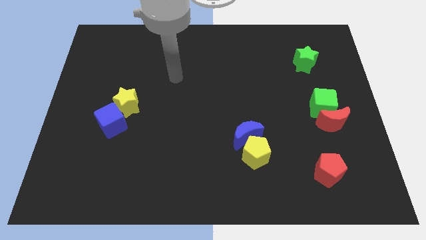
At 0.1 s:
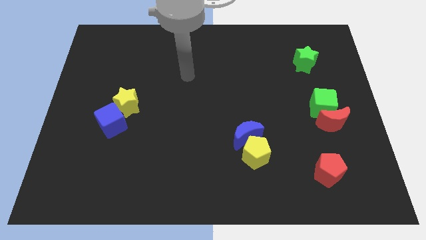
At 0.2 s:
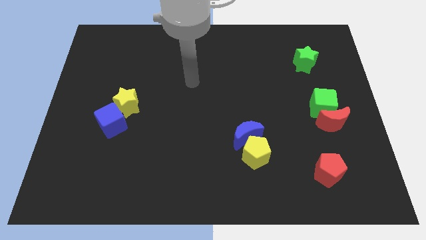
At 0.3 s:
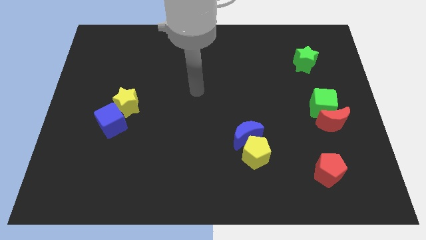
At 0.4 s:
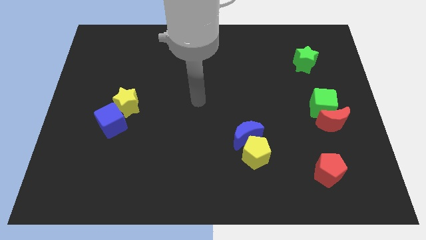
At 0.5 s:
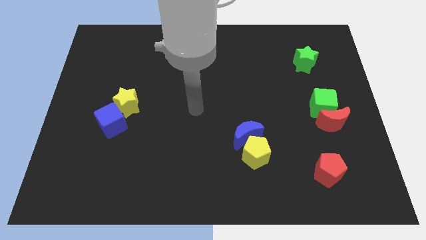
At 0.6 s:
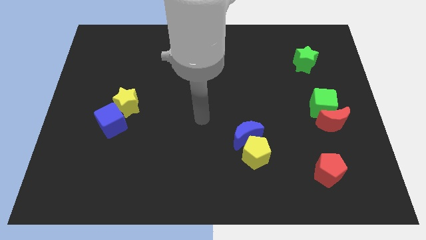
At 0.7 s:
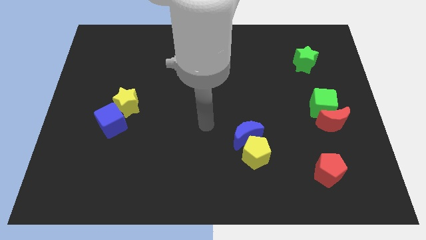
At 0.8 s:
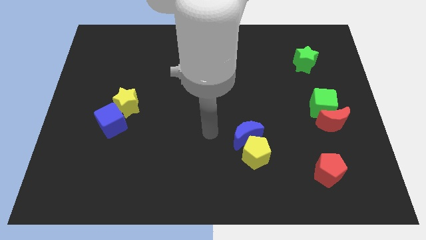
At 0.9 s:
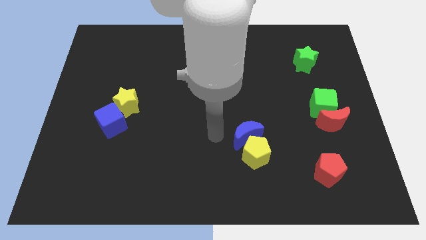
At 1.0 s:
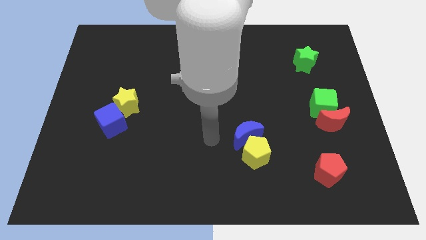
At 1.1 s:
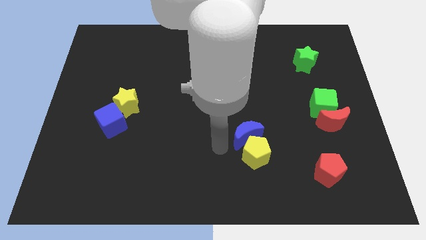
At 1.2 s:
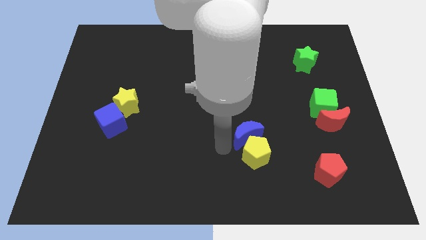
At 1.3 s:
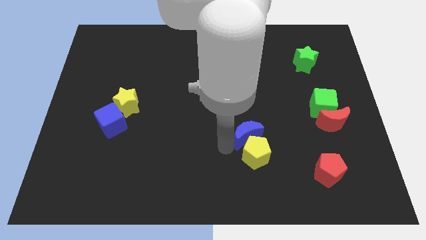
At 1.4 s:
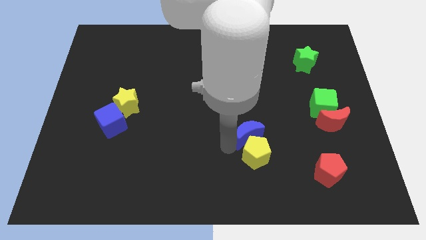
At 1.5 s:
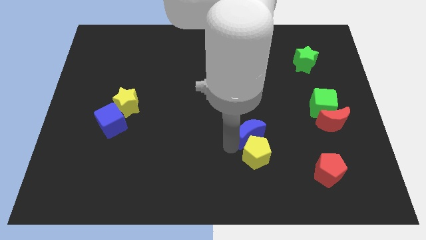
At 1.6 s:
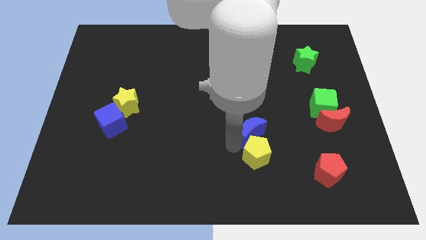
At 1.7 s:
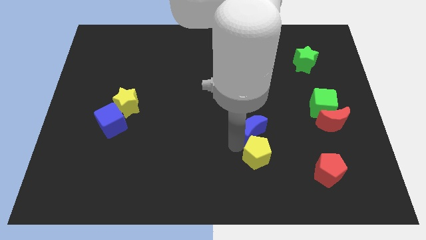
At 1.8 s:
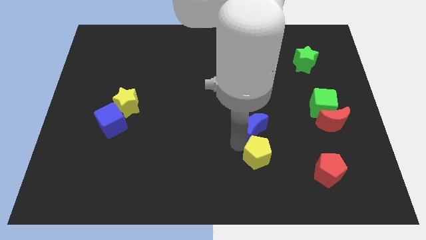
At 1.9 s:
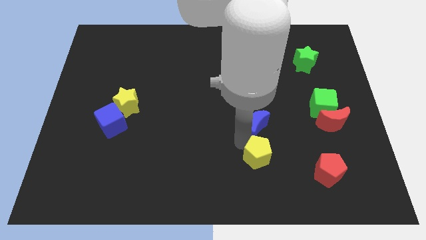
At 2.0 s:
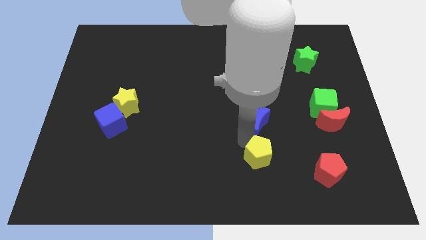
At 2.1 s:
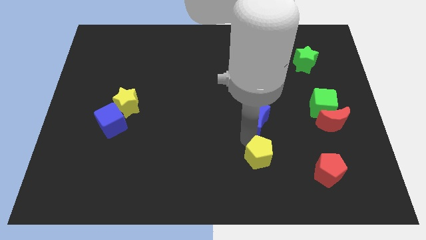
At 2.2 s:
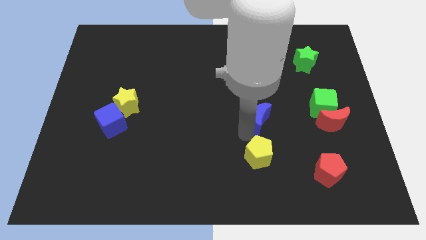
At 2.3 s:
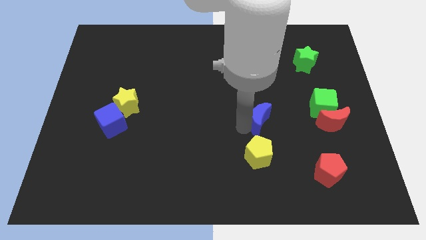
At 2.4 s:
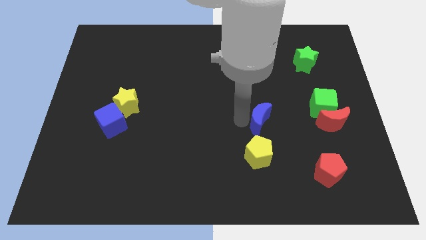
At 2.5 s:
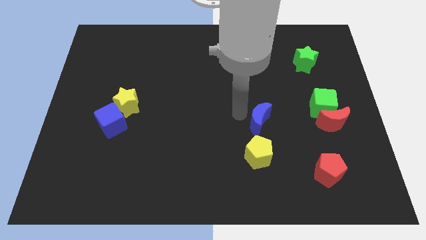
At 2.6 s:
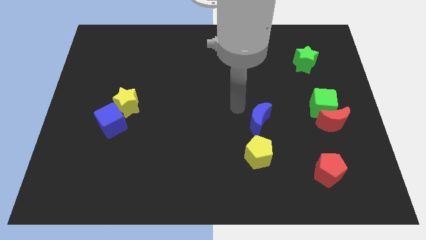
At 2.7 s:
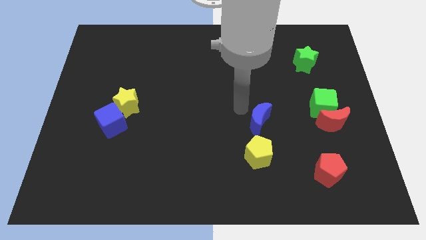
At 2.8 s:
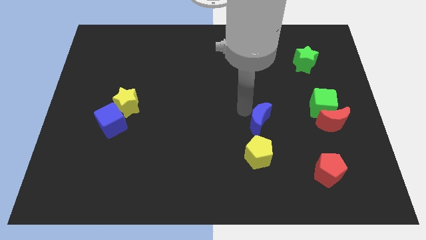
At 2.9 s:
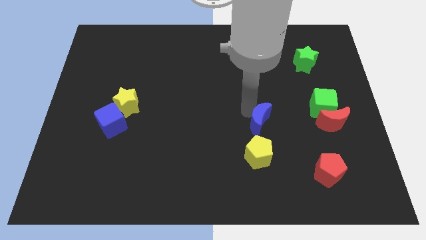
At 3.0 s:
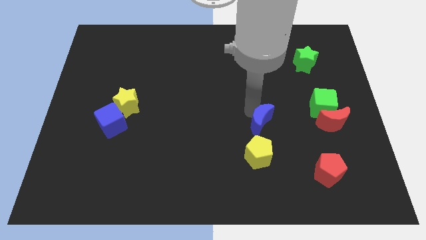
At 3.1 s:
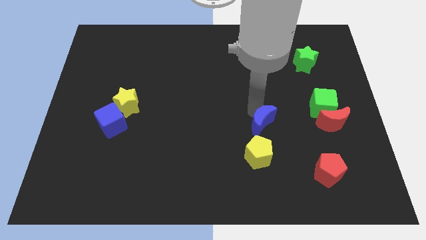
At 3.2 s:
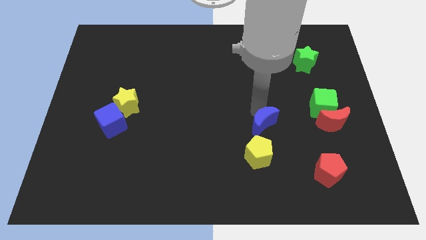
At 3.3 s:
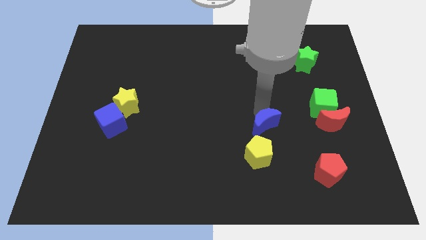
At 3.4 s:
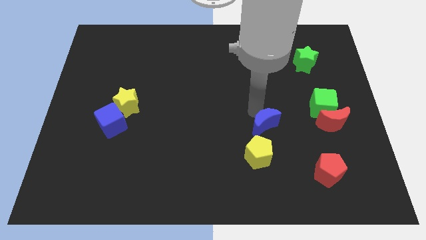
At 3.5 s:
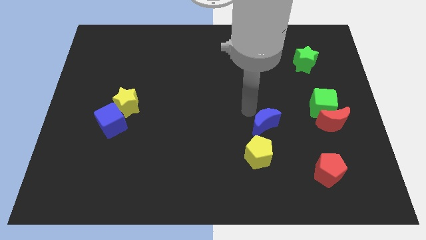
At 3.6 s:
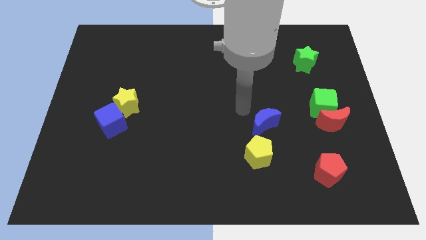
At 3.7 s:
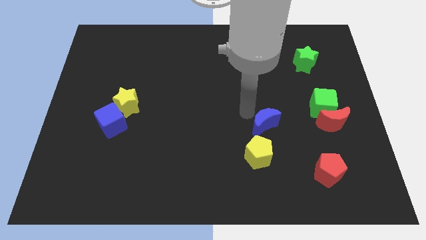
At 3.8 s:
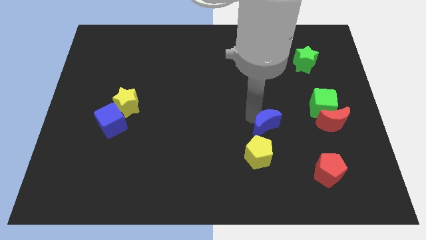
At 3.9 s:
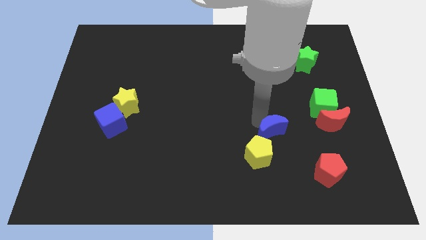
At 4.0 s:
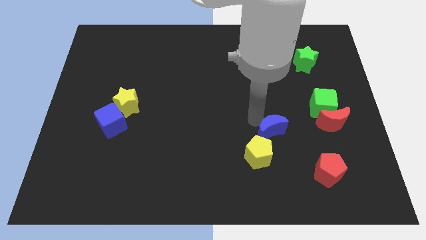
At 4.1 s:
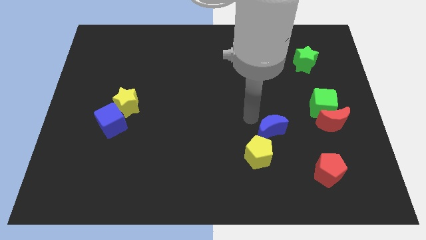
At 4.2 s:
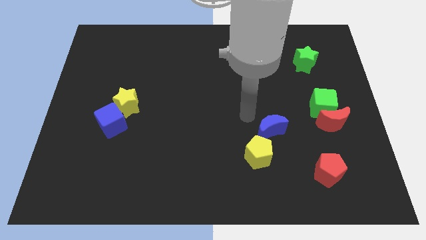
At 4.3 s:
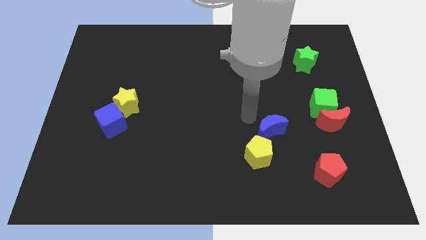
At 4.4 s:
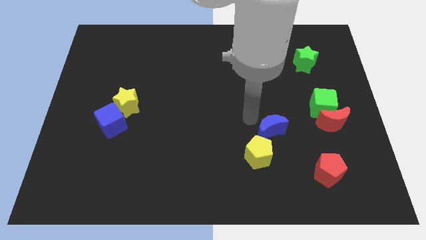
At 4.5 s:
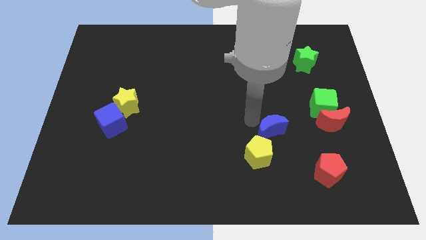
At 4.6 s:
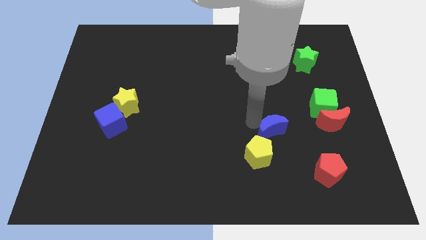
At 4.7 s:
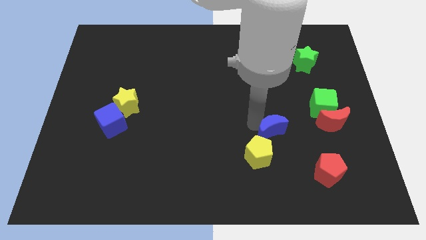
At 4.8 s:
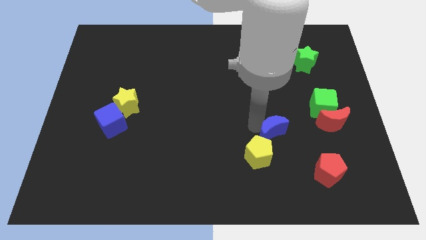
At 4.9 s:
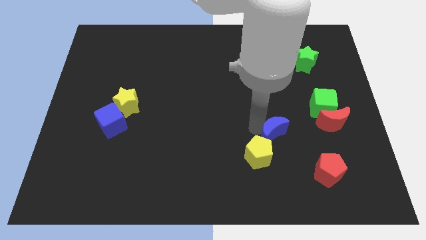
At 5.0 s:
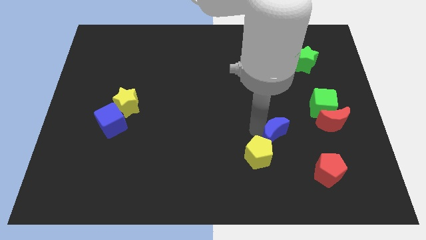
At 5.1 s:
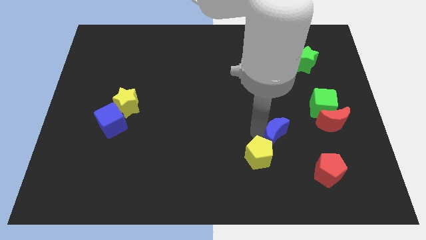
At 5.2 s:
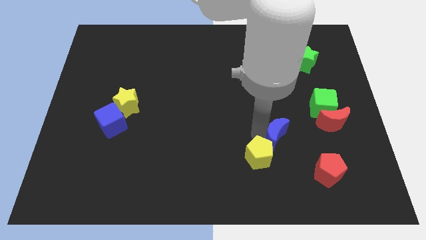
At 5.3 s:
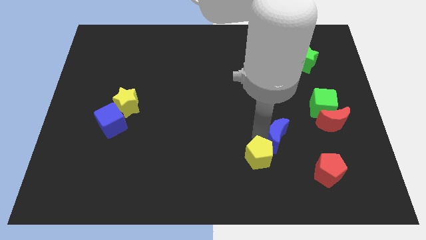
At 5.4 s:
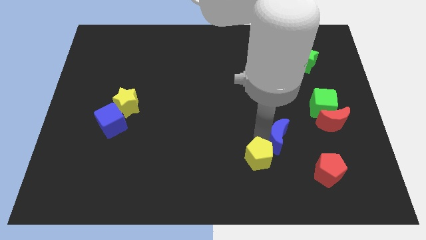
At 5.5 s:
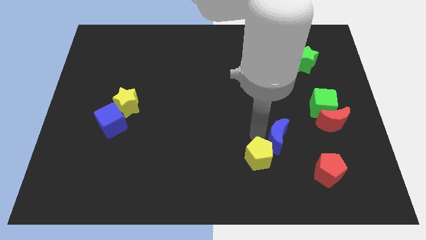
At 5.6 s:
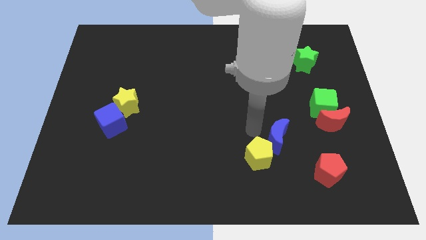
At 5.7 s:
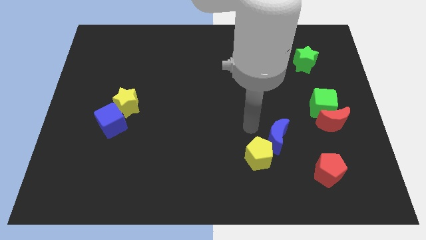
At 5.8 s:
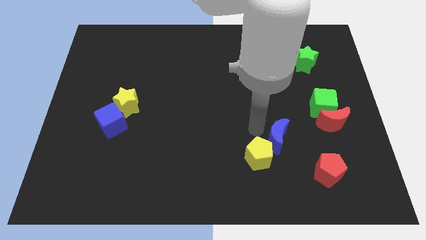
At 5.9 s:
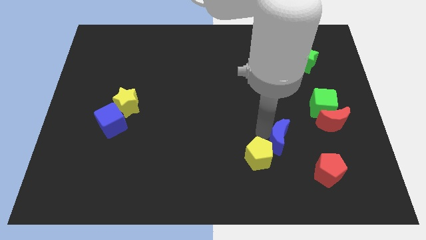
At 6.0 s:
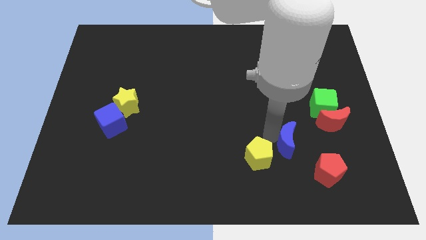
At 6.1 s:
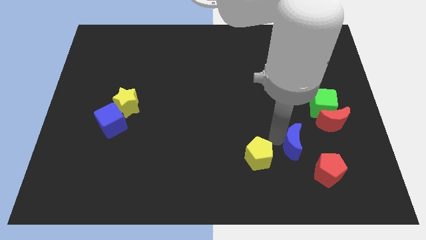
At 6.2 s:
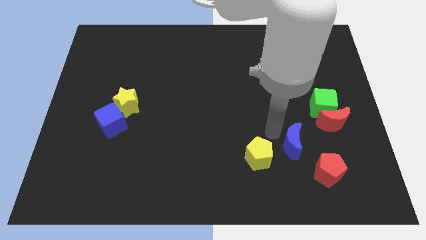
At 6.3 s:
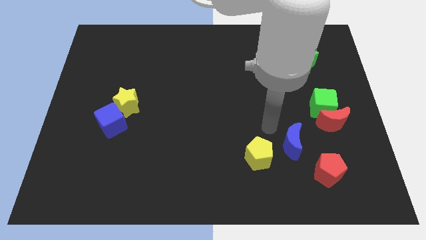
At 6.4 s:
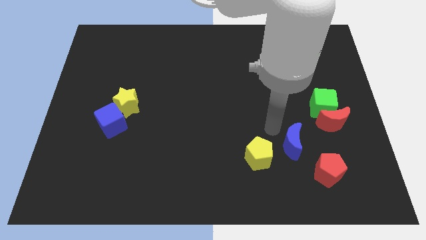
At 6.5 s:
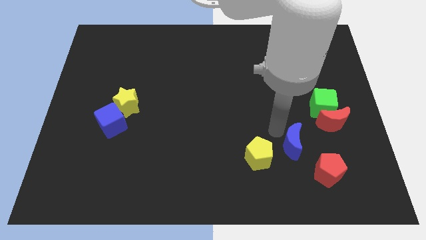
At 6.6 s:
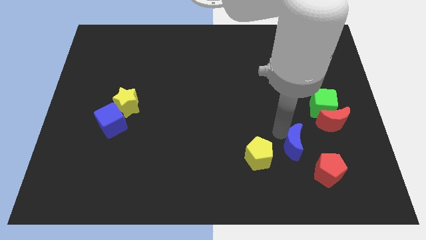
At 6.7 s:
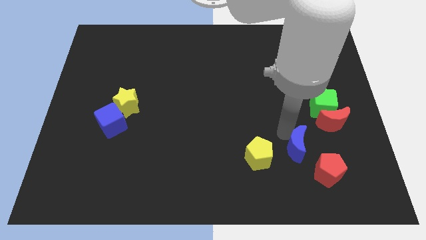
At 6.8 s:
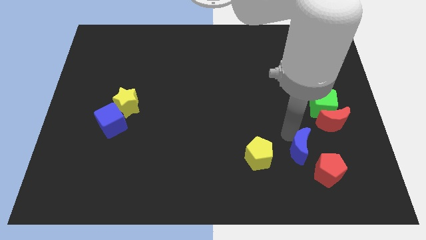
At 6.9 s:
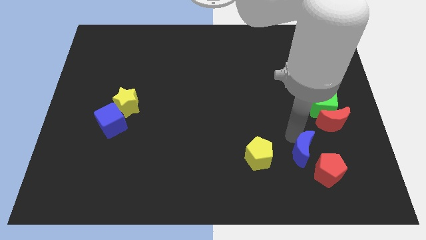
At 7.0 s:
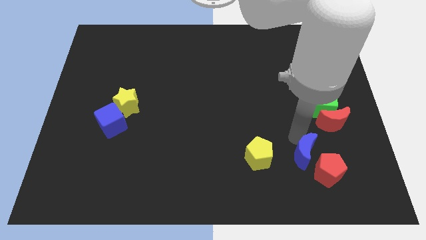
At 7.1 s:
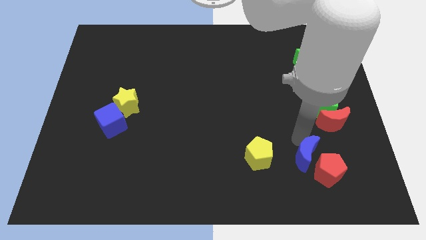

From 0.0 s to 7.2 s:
slide the blue moon close to the red pentagon
